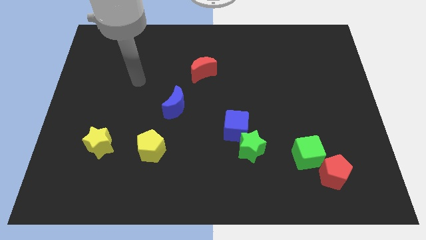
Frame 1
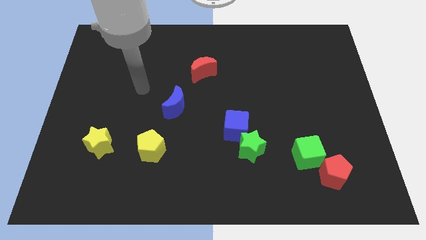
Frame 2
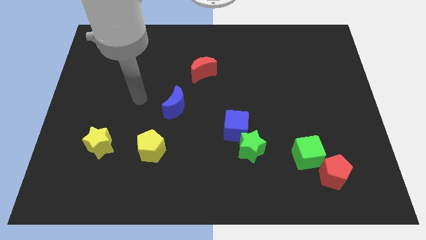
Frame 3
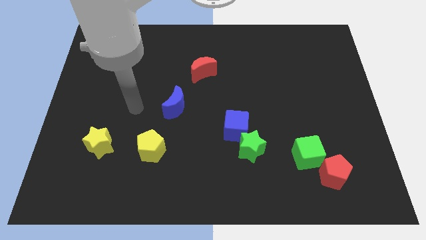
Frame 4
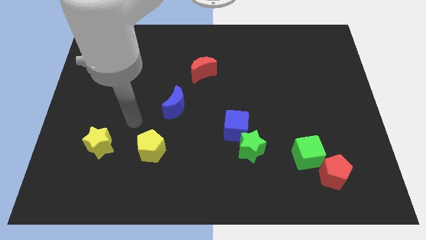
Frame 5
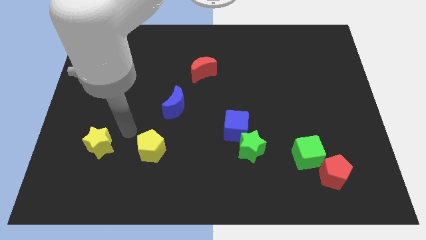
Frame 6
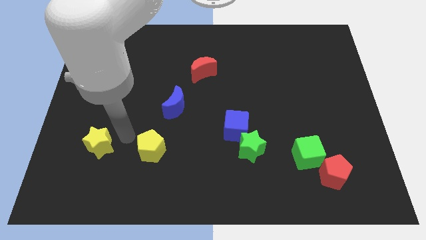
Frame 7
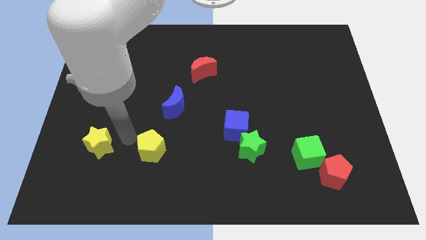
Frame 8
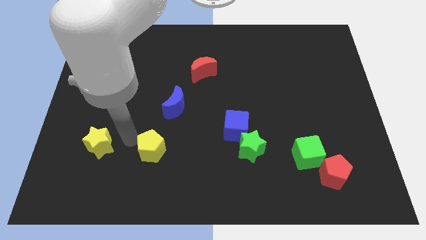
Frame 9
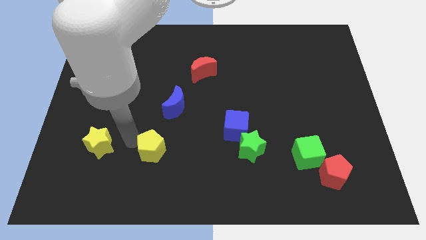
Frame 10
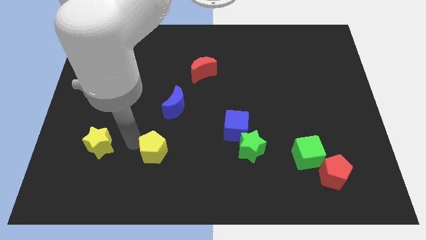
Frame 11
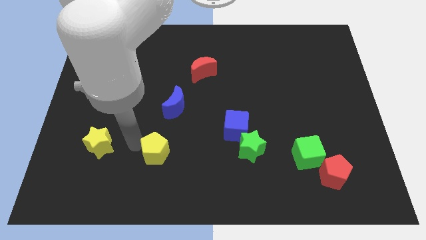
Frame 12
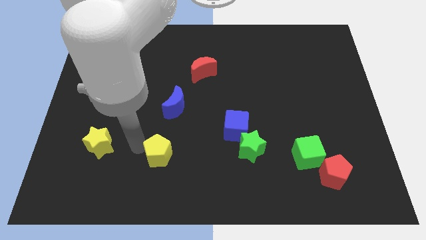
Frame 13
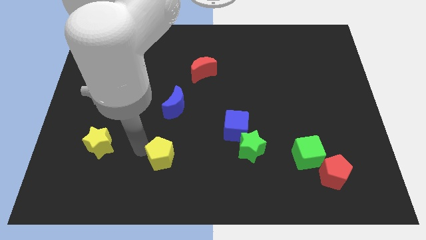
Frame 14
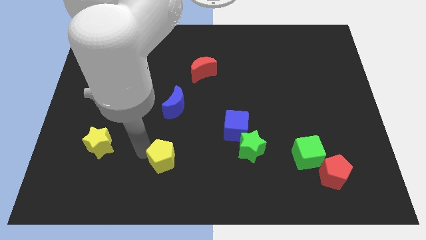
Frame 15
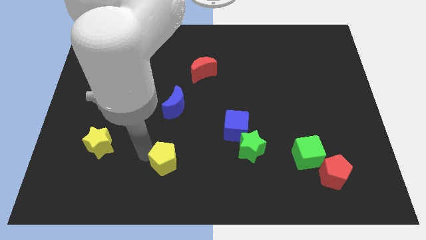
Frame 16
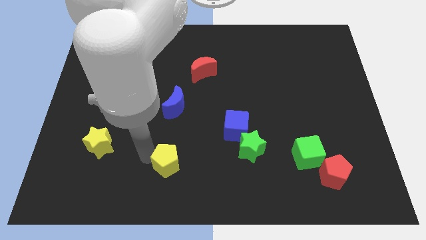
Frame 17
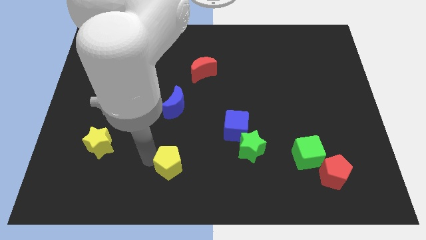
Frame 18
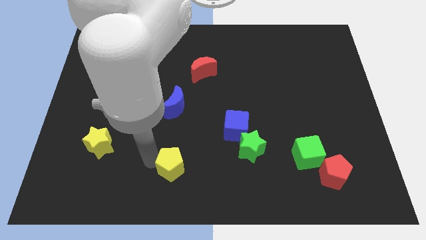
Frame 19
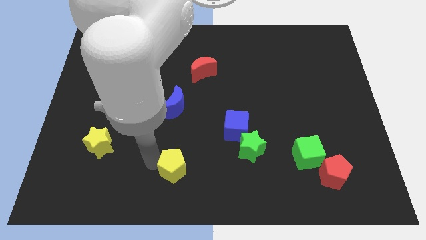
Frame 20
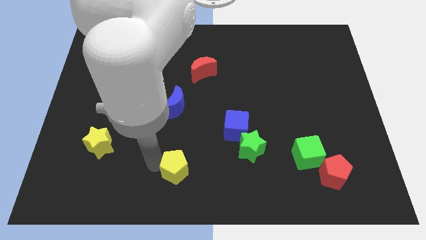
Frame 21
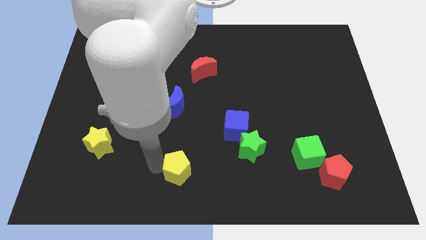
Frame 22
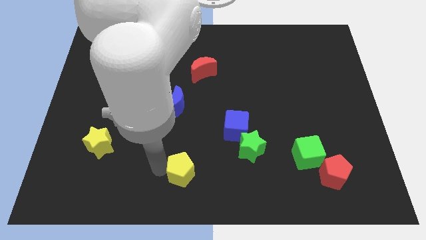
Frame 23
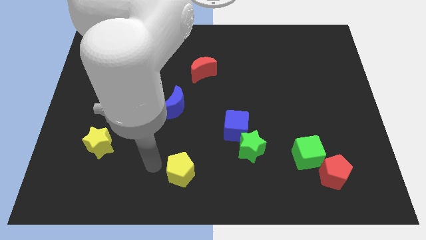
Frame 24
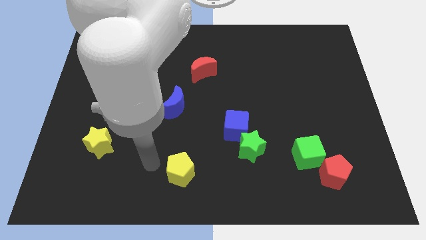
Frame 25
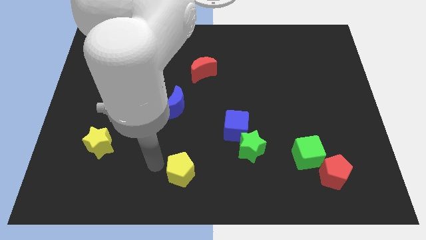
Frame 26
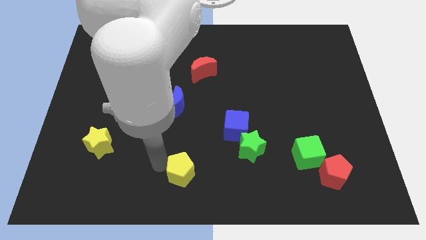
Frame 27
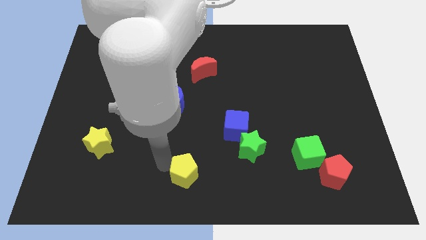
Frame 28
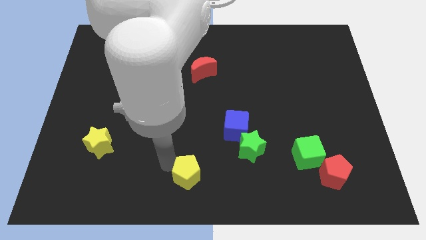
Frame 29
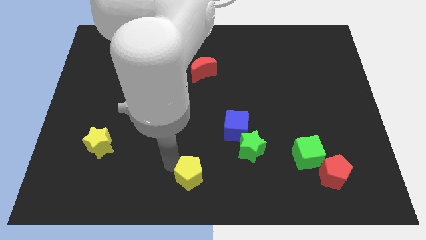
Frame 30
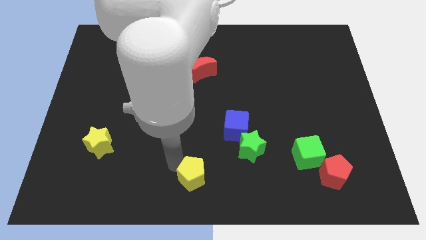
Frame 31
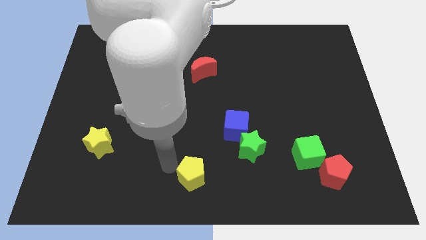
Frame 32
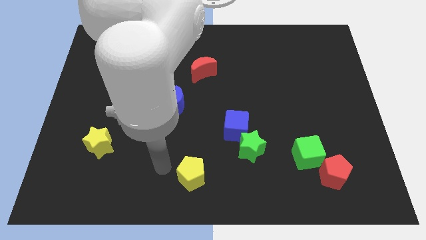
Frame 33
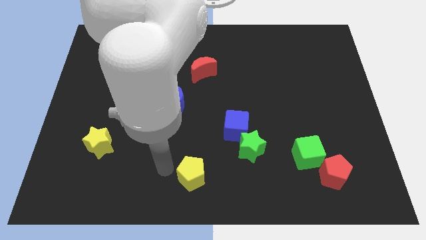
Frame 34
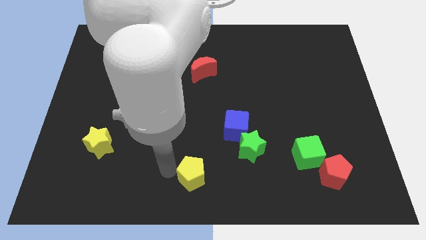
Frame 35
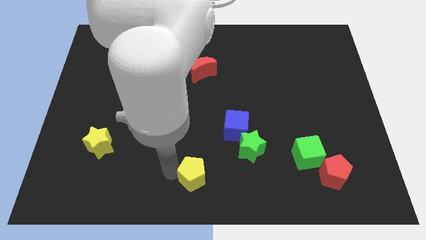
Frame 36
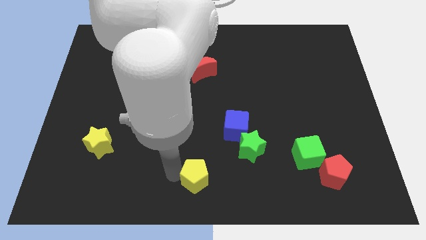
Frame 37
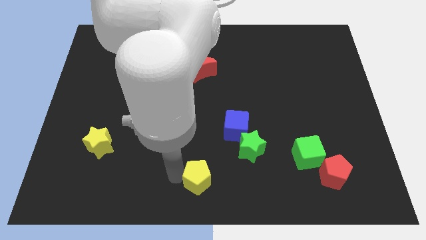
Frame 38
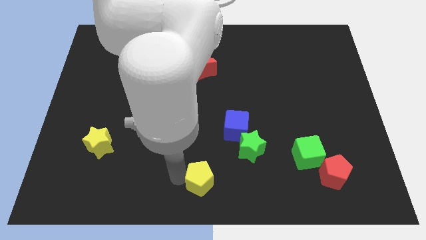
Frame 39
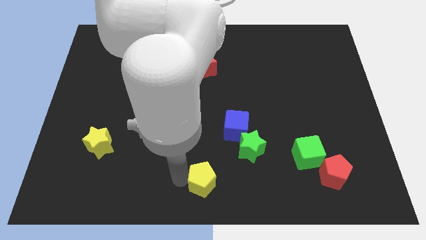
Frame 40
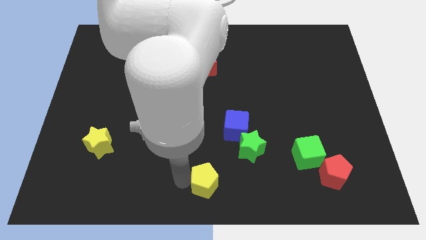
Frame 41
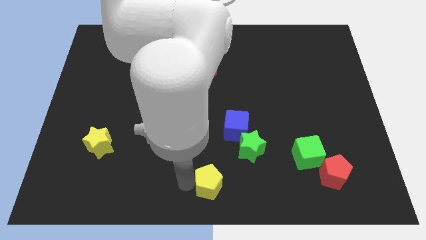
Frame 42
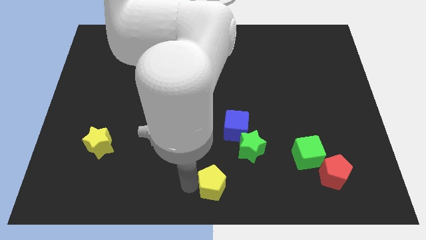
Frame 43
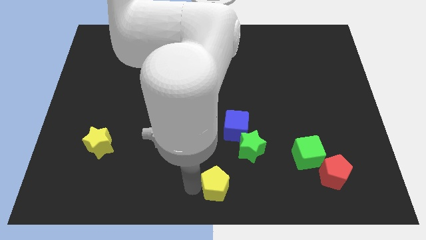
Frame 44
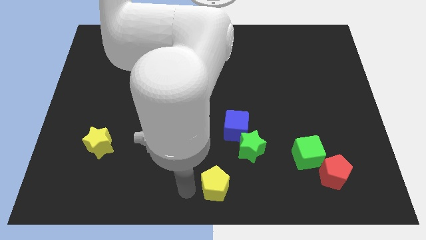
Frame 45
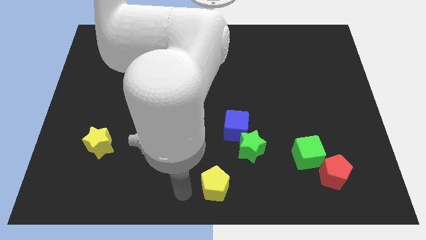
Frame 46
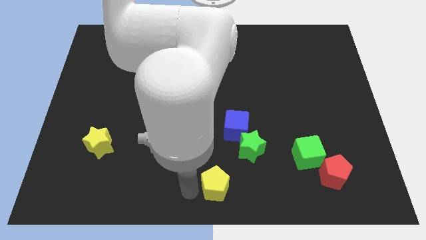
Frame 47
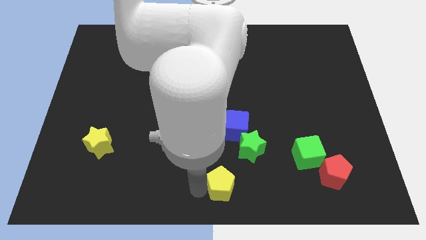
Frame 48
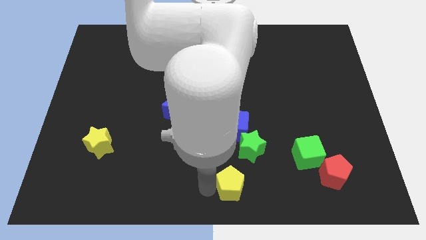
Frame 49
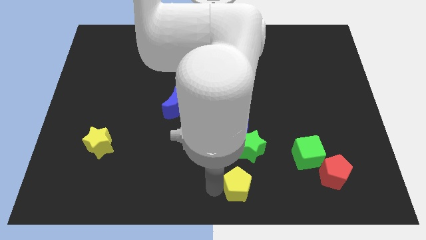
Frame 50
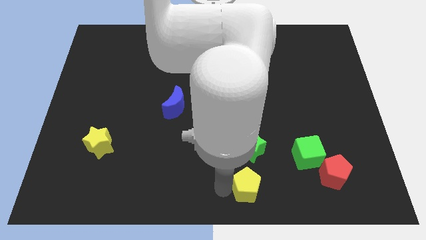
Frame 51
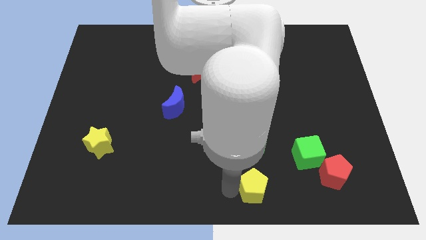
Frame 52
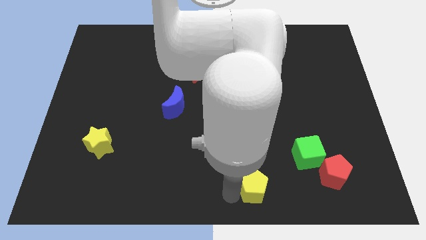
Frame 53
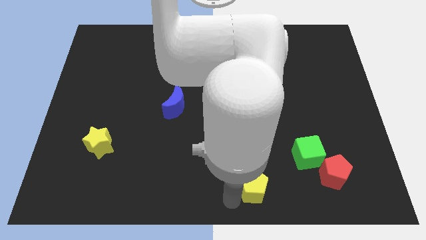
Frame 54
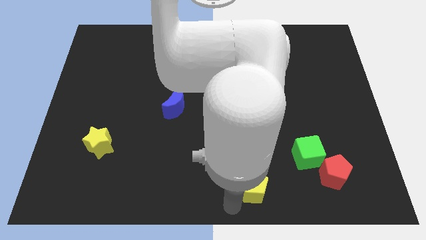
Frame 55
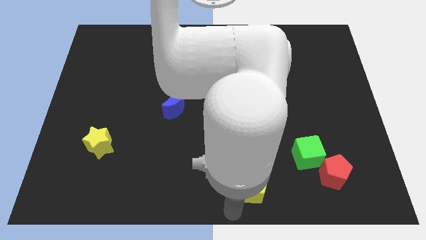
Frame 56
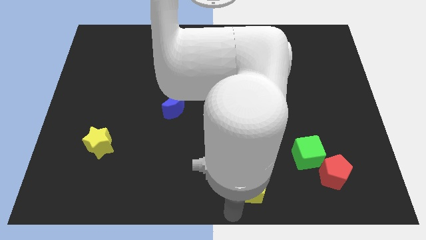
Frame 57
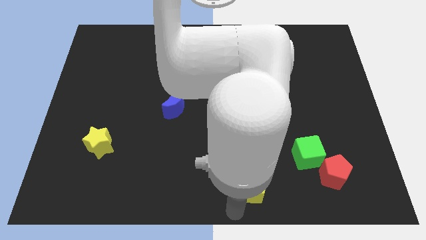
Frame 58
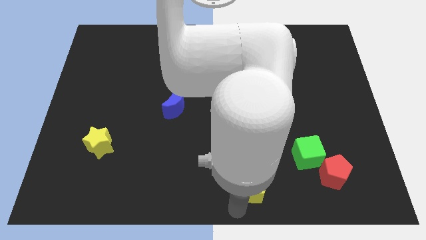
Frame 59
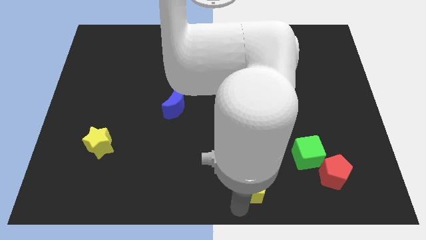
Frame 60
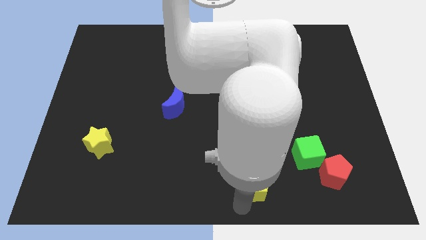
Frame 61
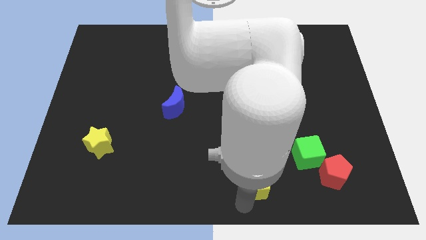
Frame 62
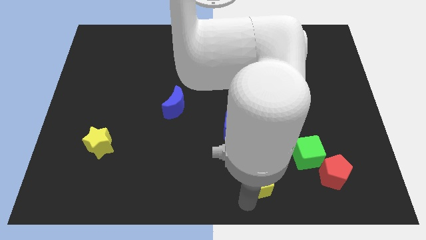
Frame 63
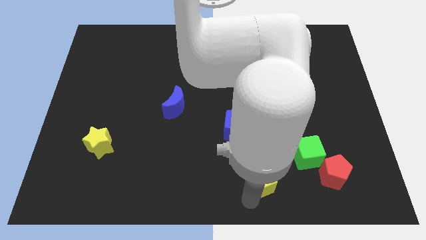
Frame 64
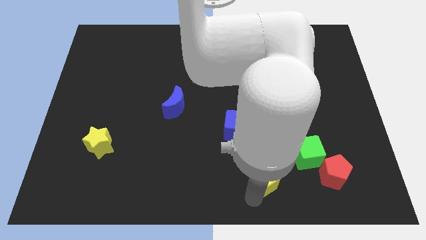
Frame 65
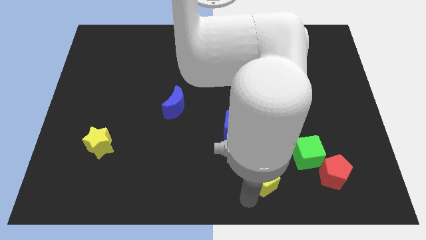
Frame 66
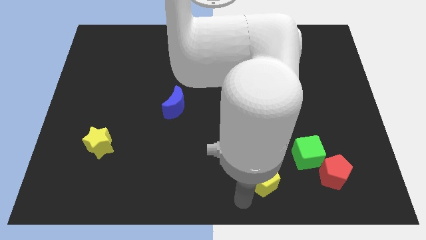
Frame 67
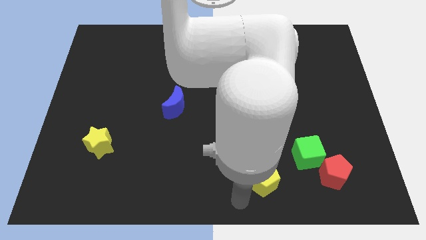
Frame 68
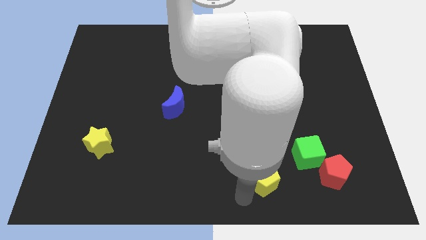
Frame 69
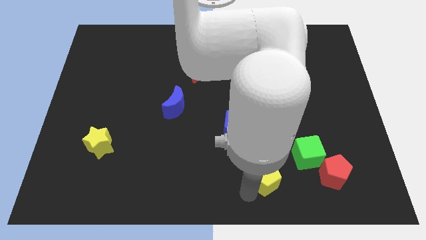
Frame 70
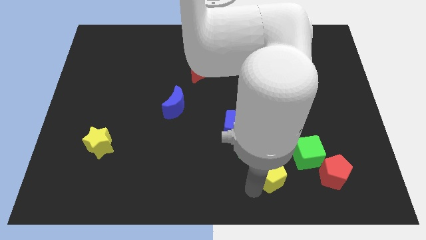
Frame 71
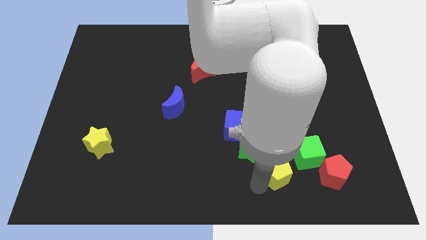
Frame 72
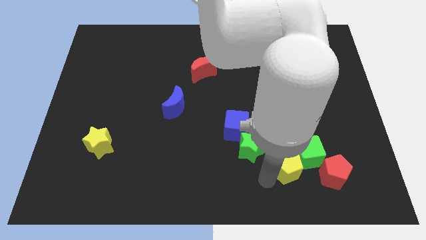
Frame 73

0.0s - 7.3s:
slide the yellow pentagon close to the green cube
